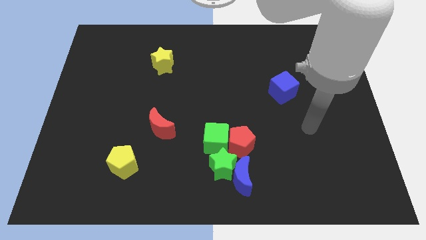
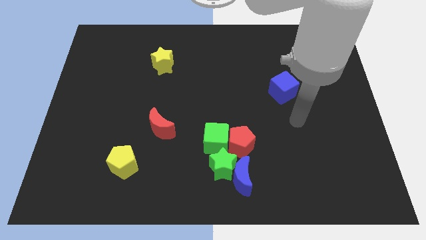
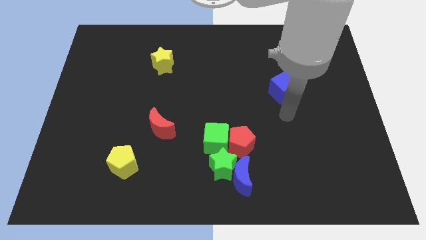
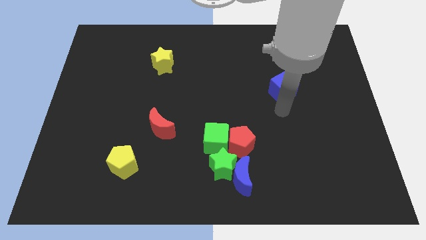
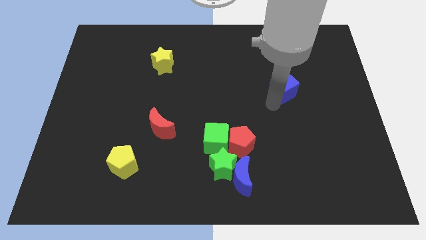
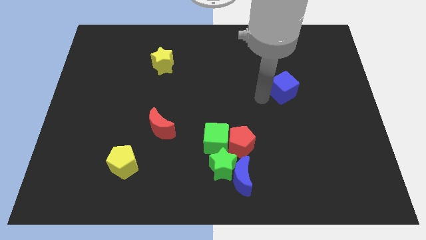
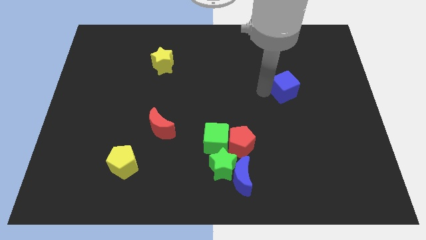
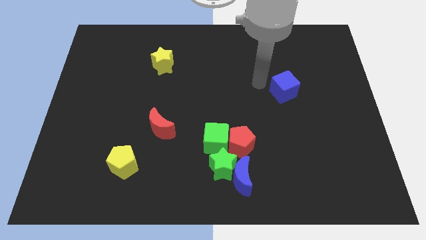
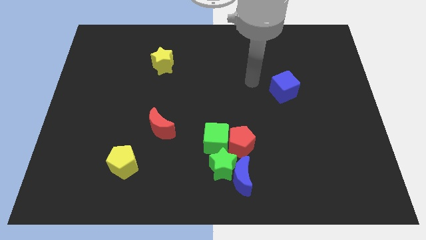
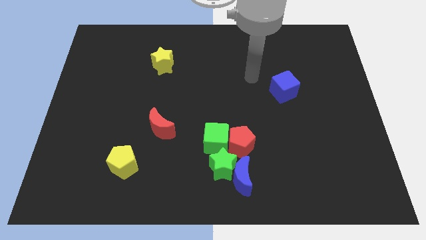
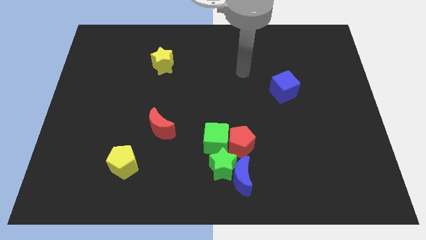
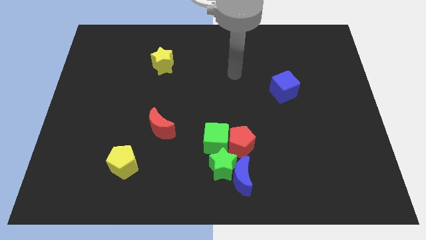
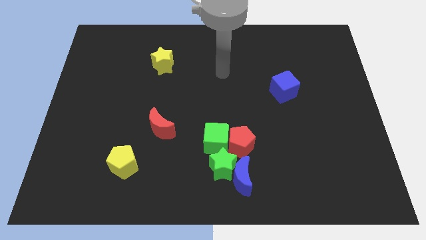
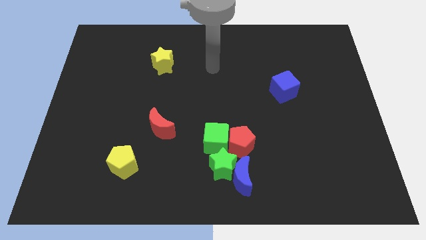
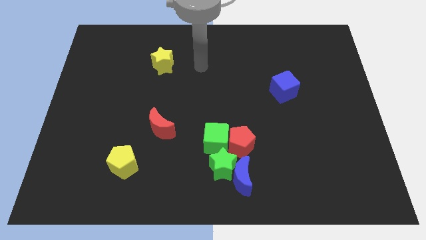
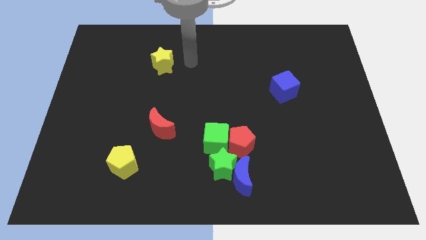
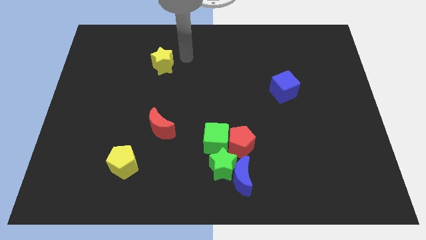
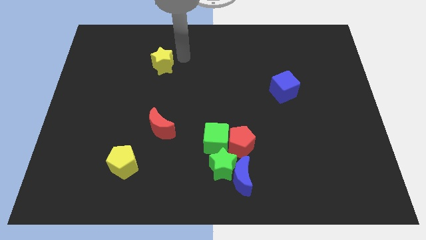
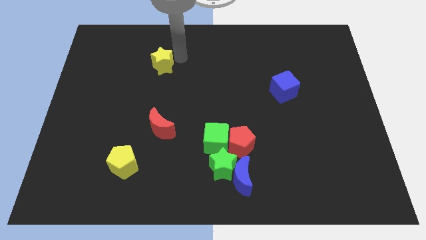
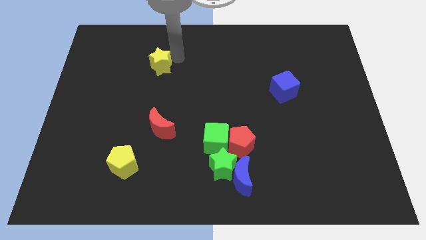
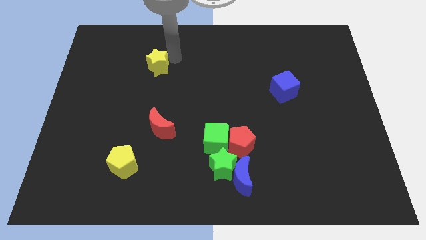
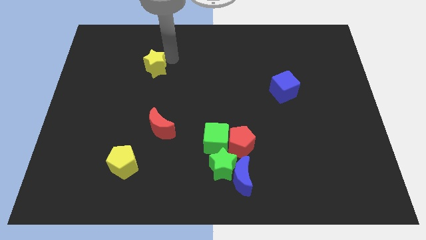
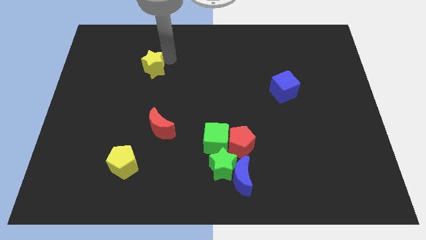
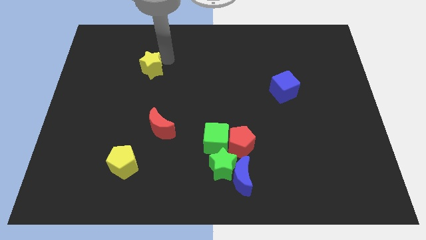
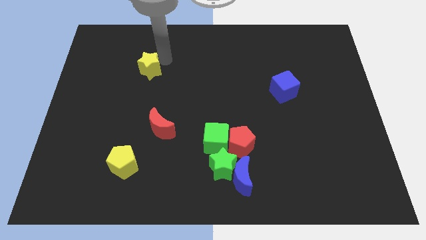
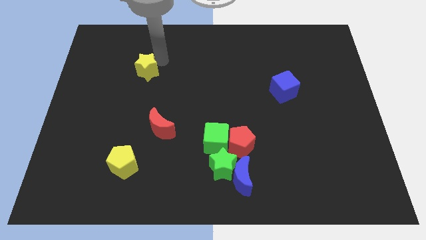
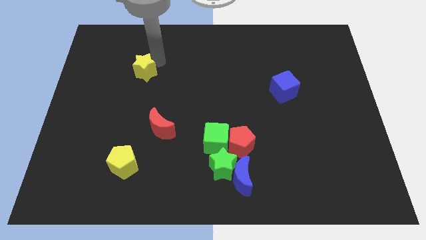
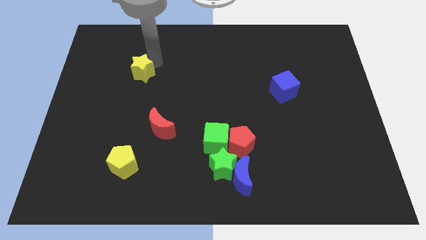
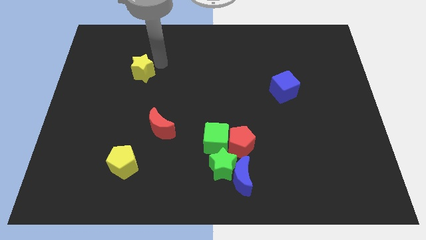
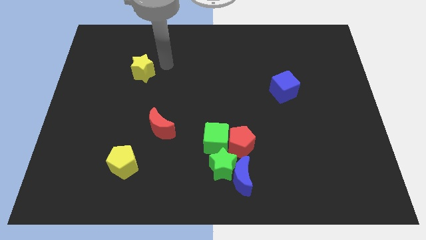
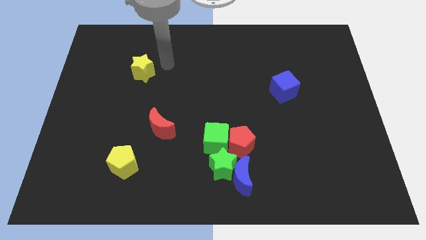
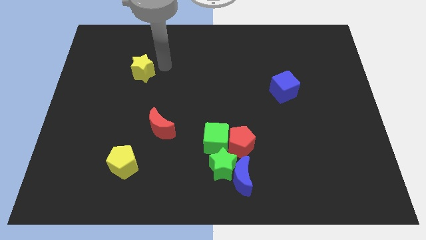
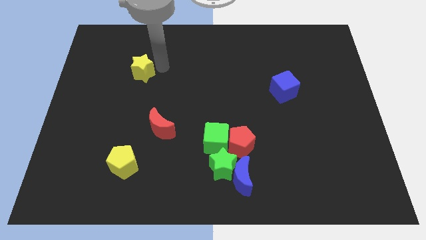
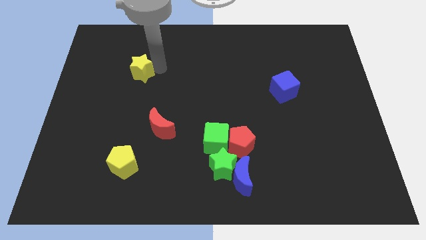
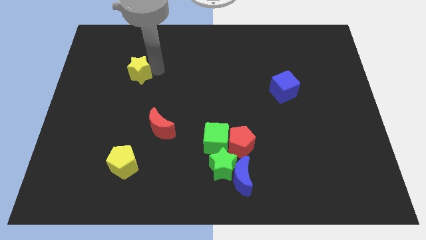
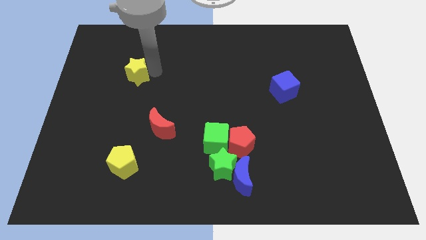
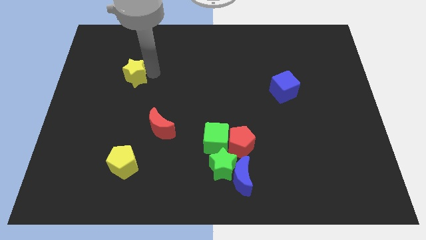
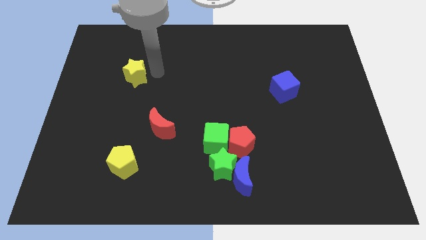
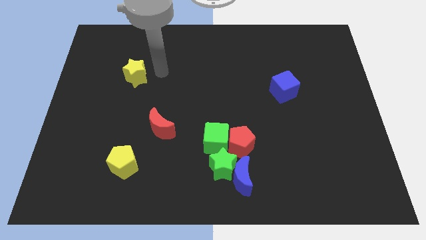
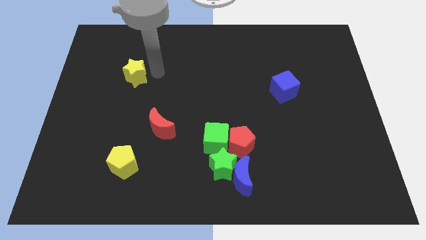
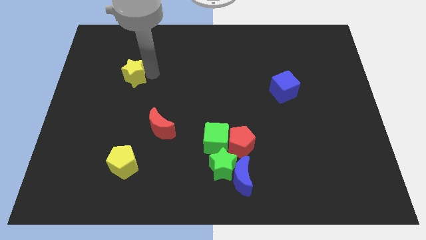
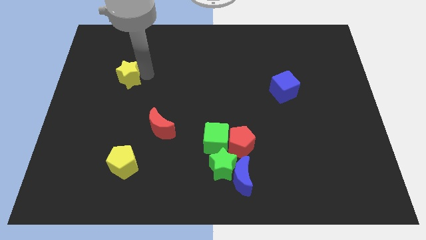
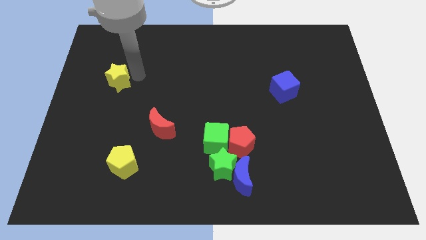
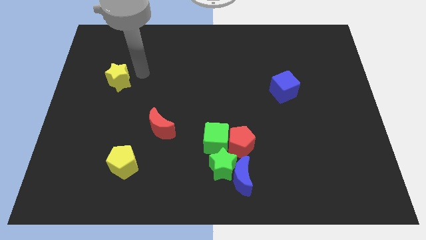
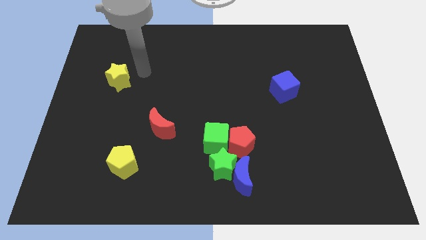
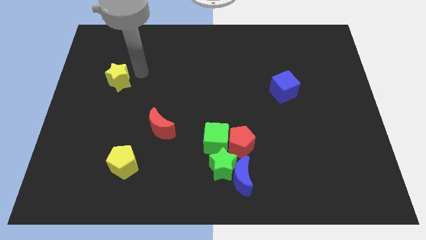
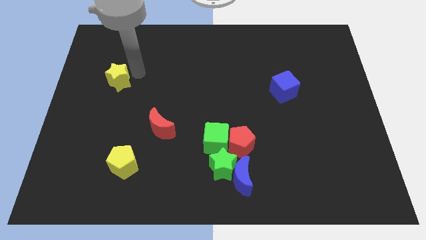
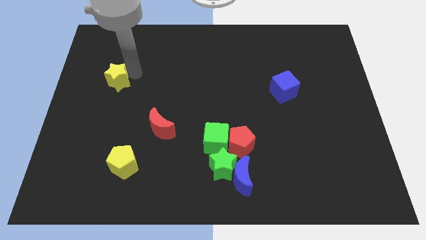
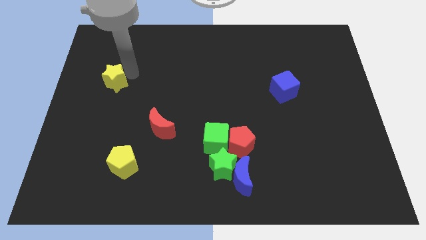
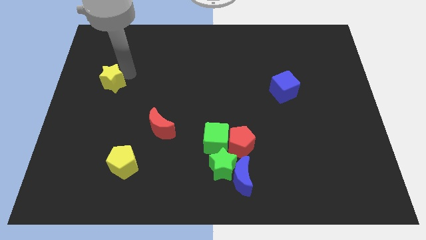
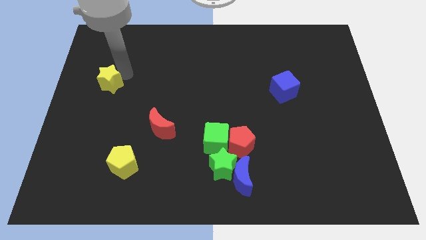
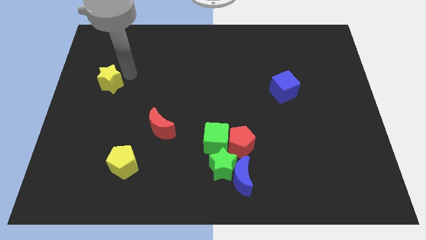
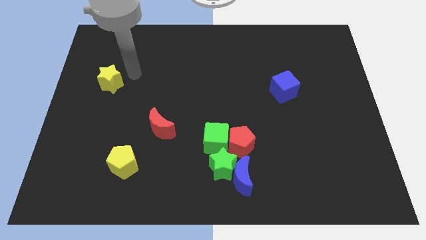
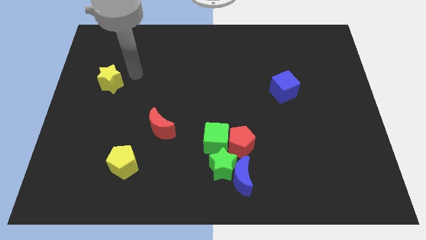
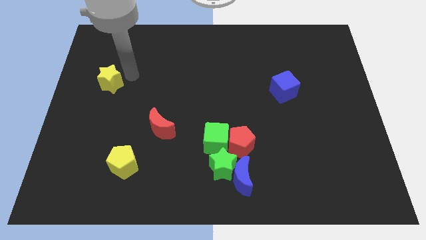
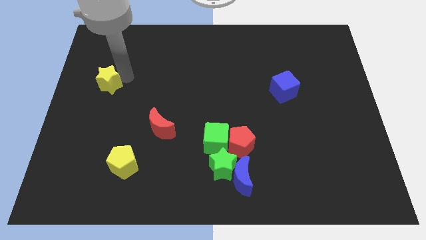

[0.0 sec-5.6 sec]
move the yellow star to the center left

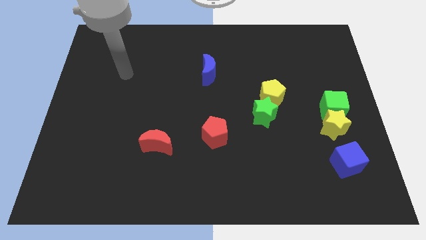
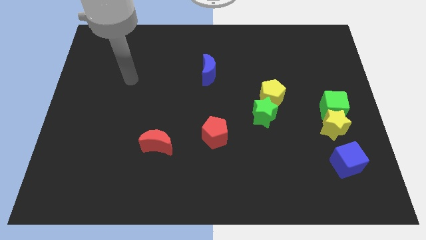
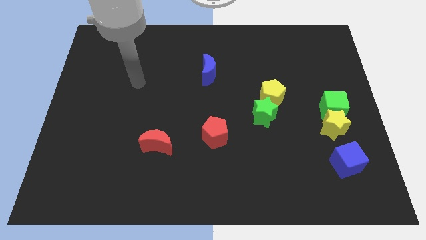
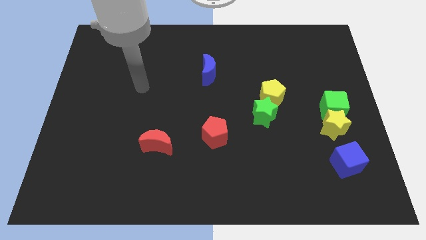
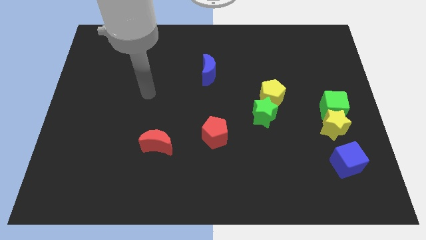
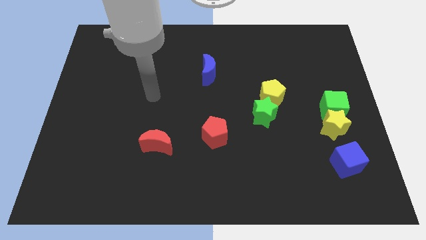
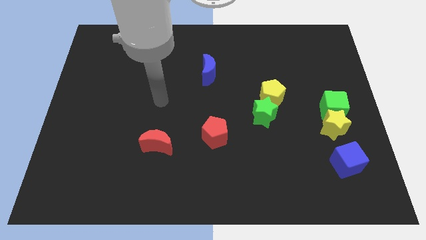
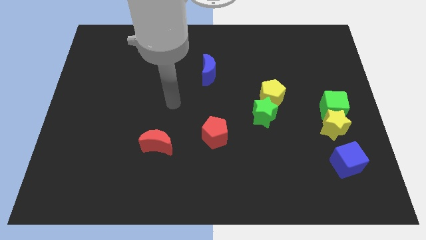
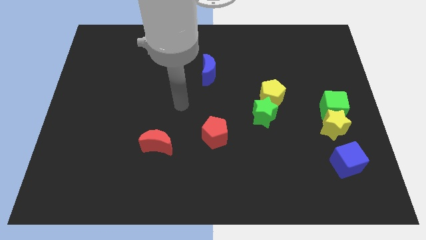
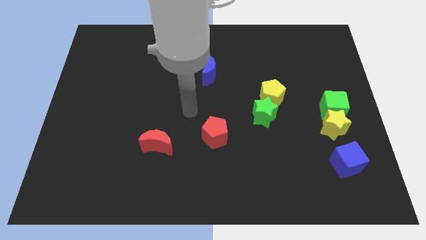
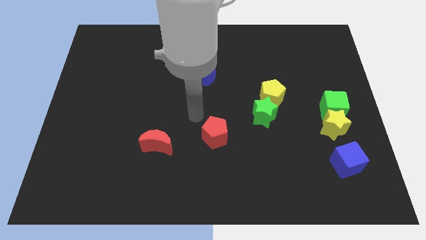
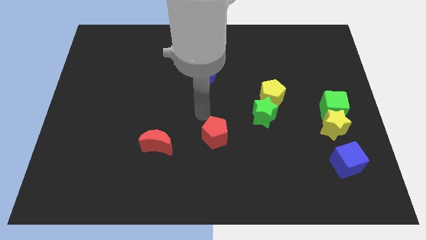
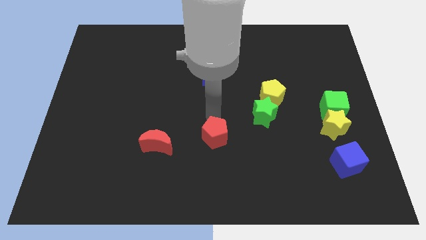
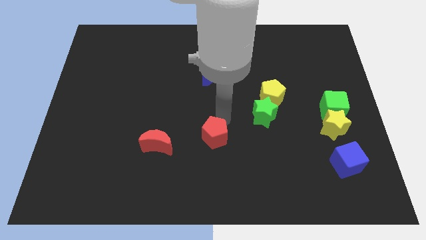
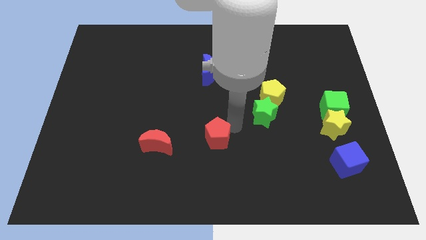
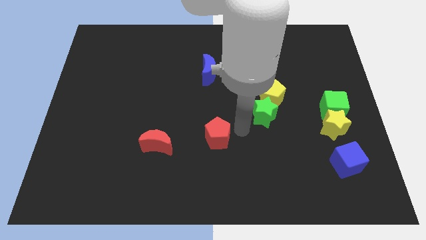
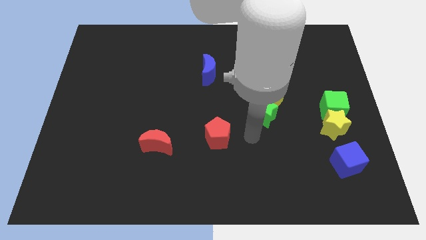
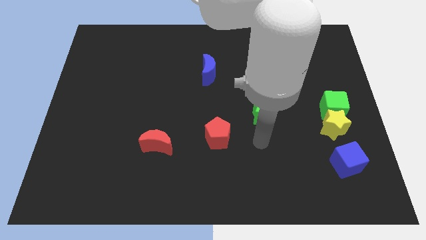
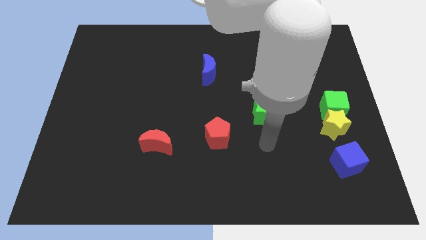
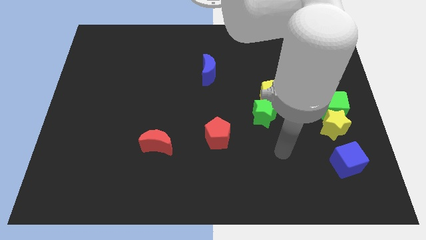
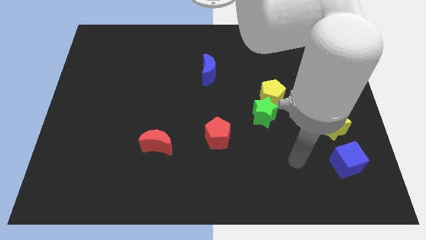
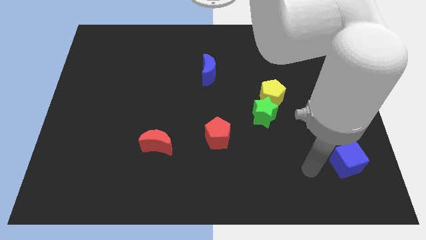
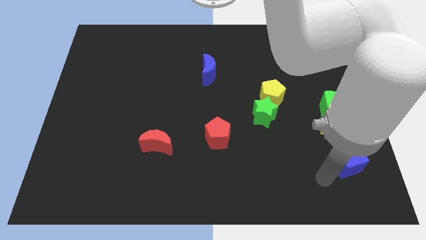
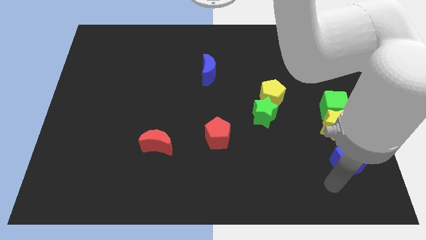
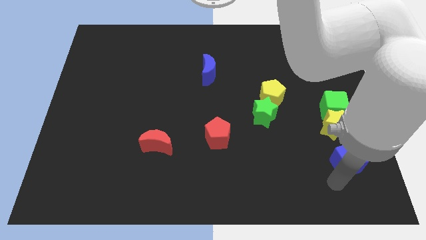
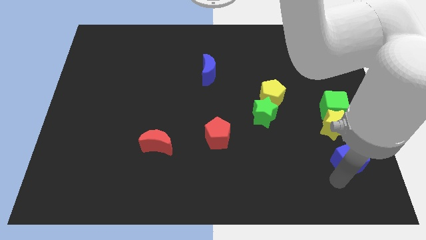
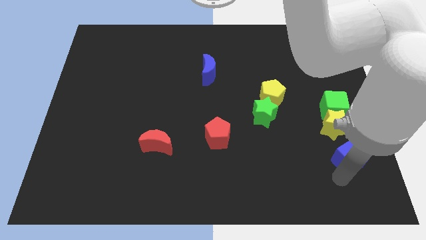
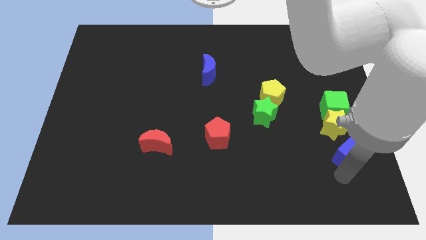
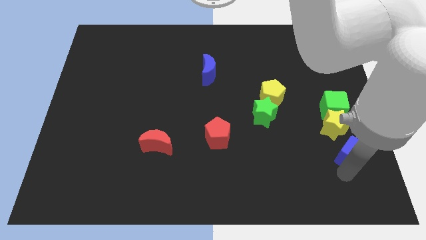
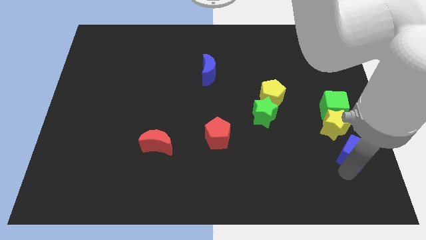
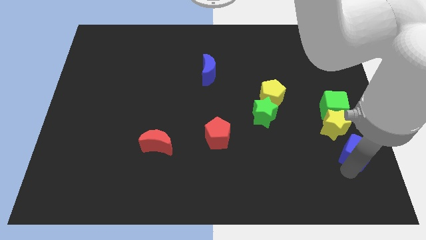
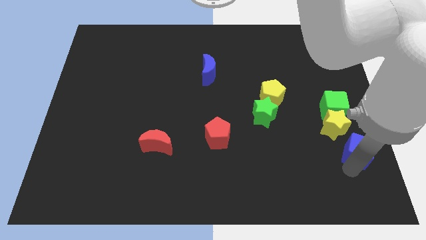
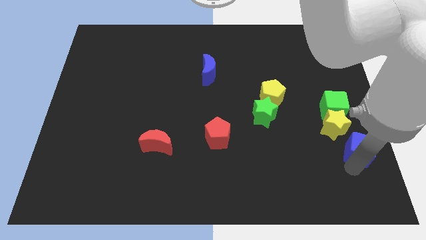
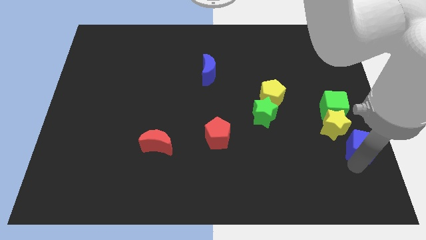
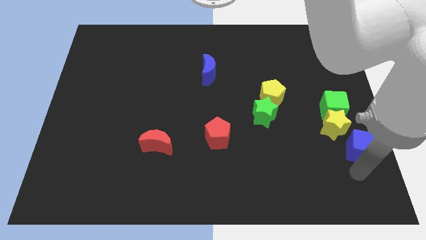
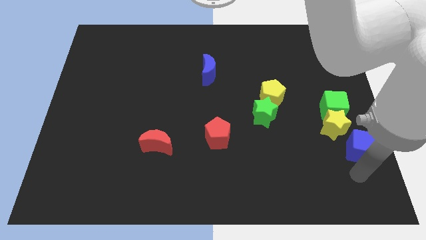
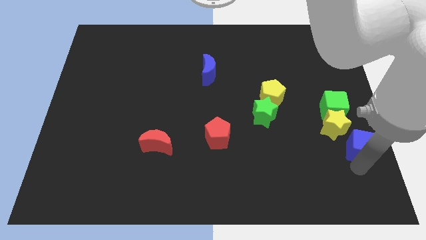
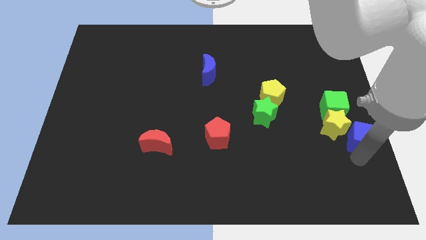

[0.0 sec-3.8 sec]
move the blue cube to the right side
